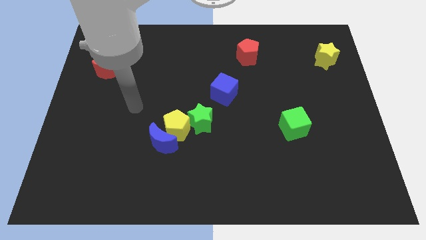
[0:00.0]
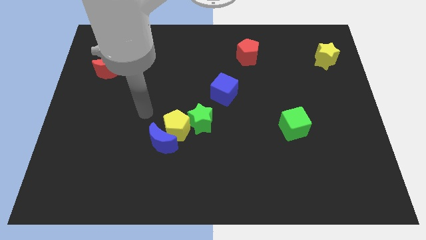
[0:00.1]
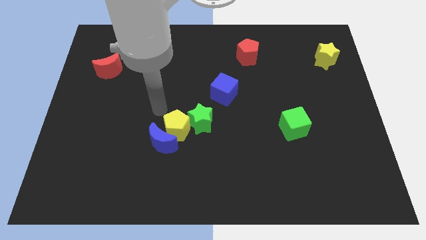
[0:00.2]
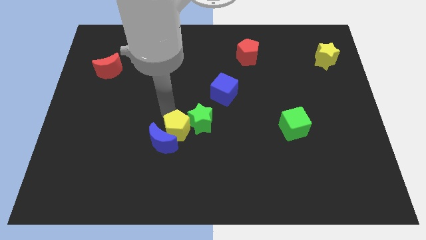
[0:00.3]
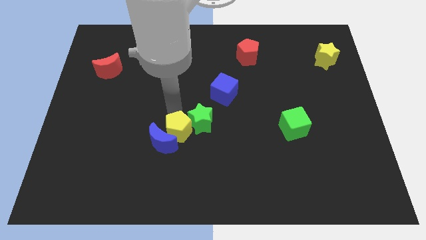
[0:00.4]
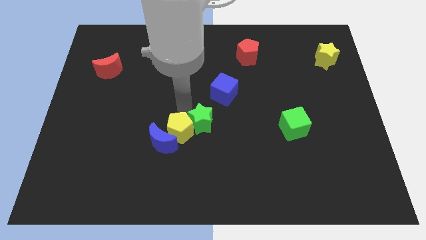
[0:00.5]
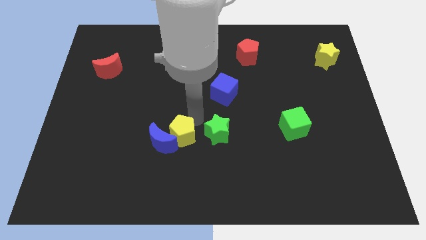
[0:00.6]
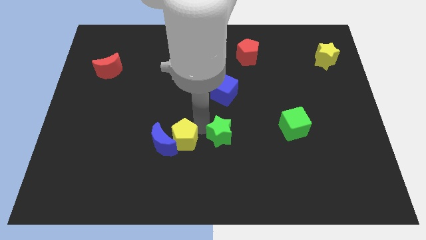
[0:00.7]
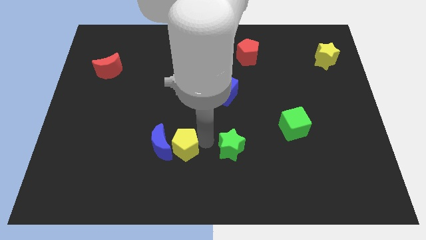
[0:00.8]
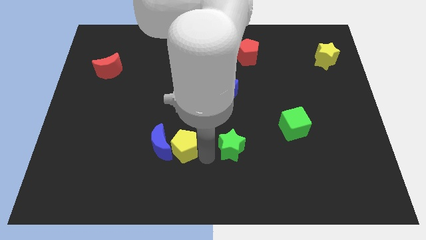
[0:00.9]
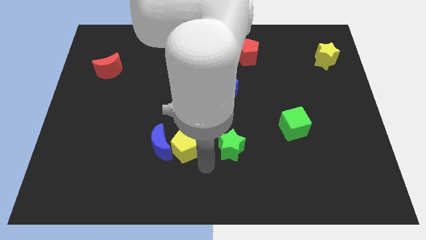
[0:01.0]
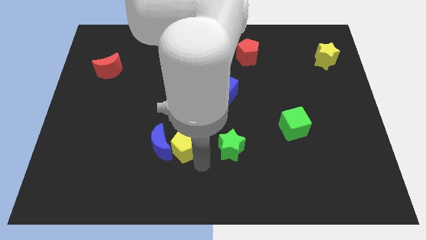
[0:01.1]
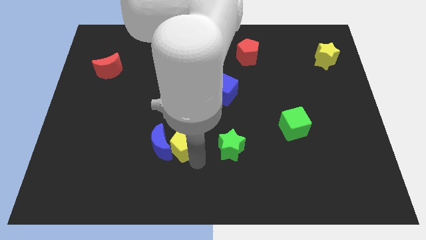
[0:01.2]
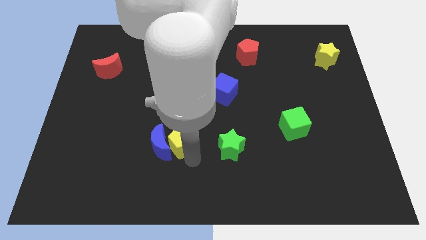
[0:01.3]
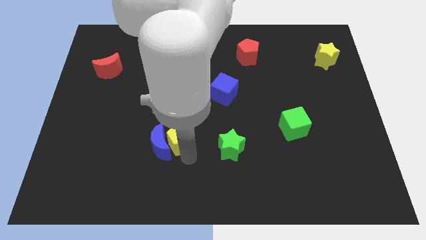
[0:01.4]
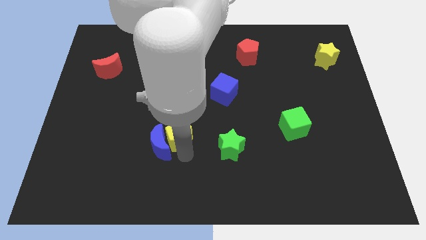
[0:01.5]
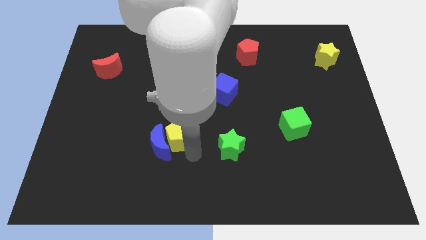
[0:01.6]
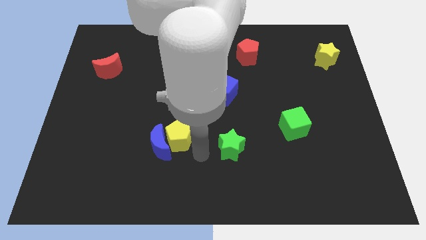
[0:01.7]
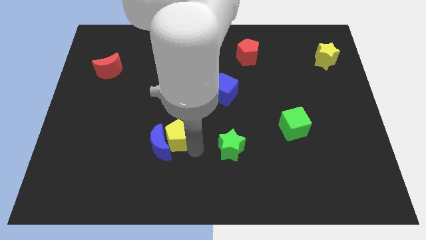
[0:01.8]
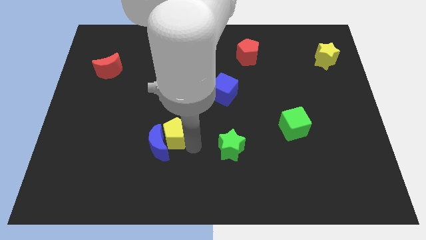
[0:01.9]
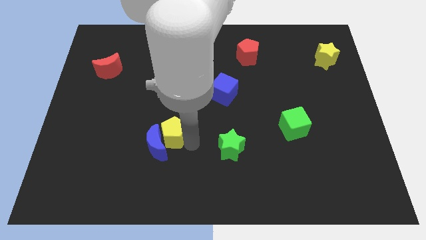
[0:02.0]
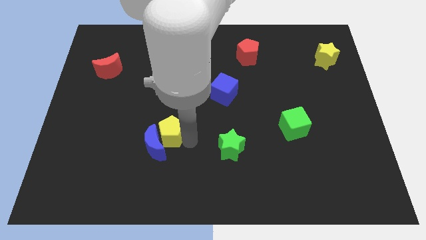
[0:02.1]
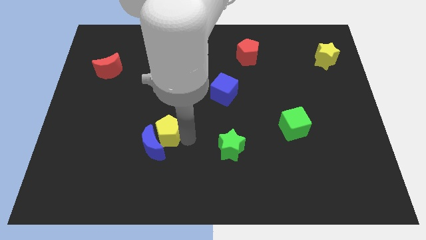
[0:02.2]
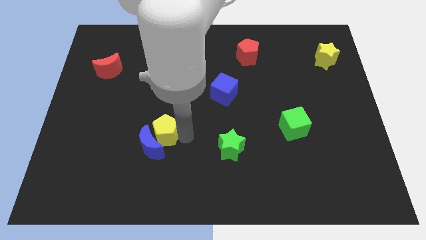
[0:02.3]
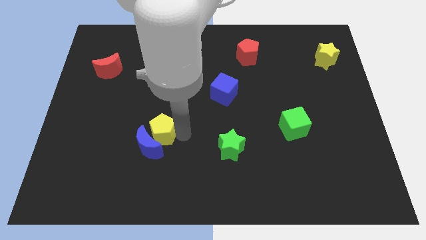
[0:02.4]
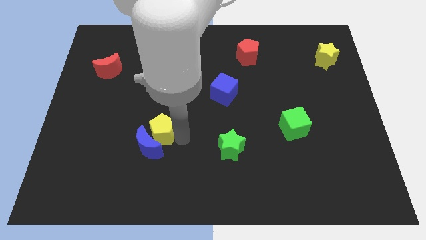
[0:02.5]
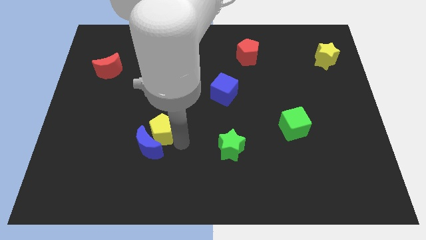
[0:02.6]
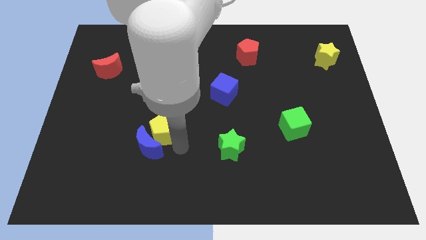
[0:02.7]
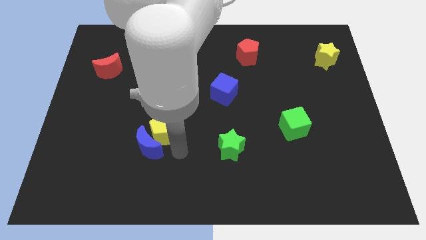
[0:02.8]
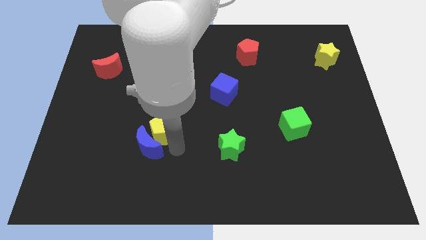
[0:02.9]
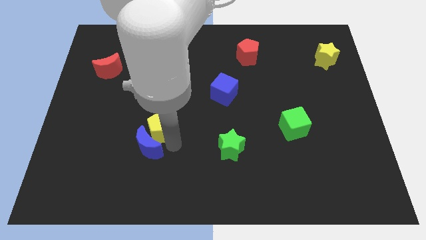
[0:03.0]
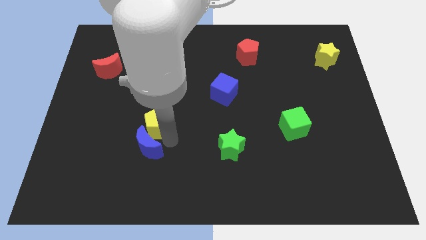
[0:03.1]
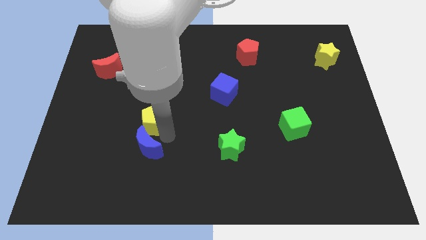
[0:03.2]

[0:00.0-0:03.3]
pull the yellow pentagon apart from the blue moon and green star

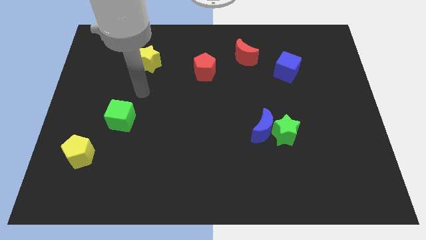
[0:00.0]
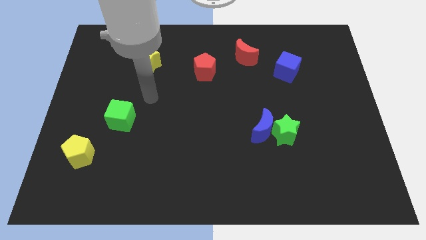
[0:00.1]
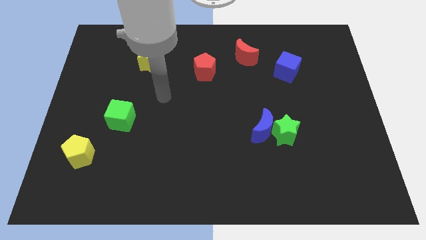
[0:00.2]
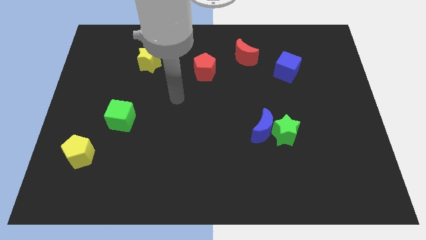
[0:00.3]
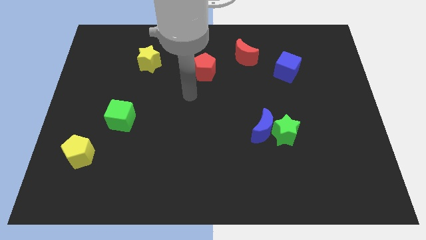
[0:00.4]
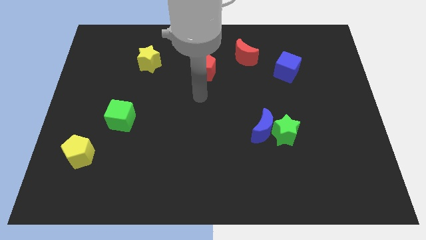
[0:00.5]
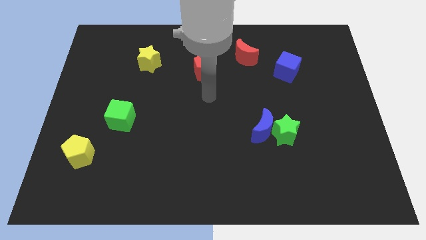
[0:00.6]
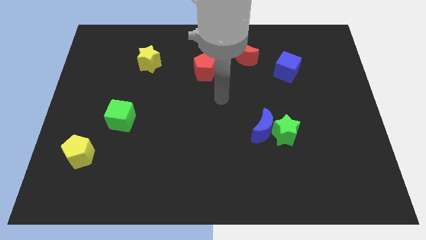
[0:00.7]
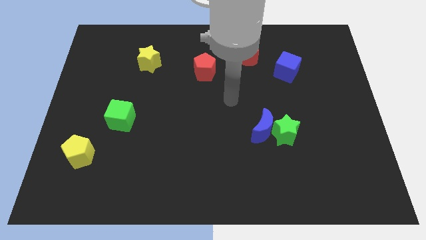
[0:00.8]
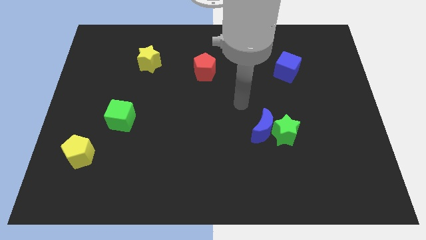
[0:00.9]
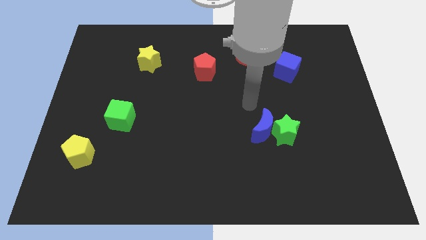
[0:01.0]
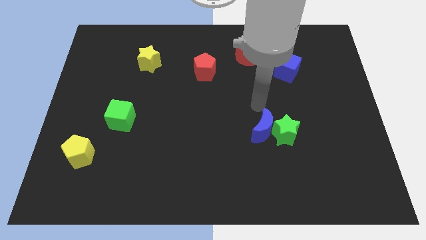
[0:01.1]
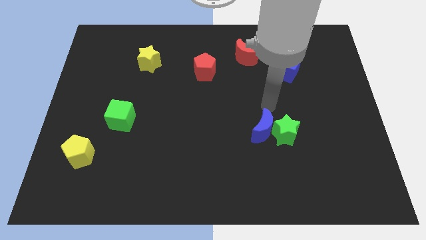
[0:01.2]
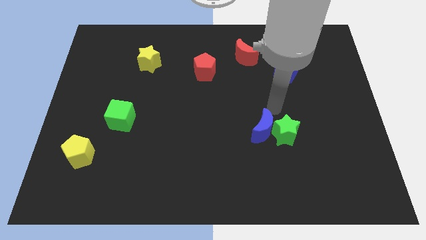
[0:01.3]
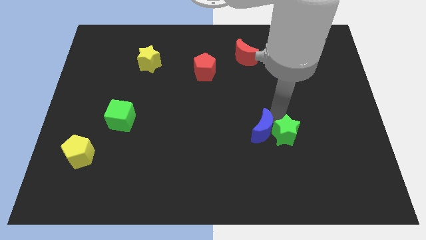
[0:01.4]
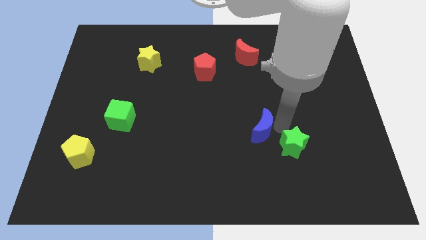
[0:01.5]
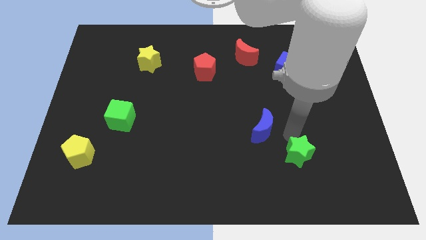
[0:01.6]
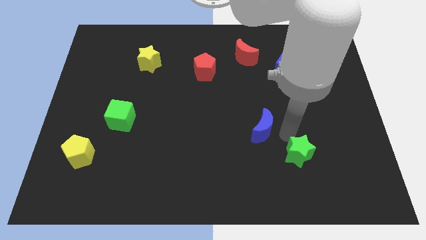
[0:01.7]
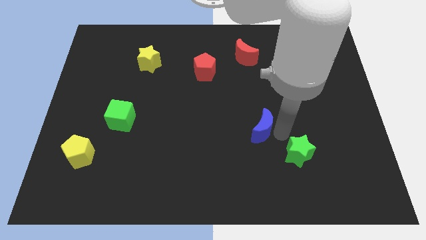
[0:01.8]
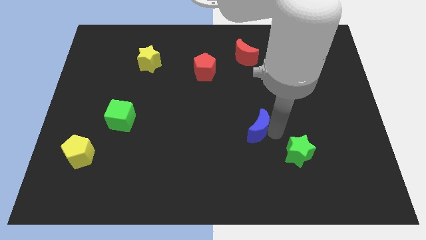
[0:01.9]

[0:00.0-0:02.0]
move the blue moon away from the green star

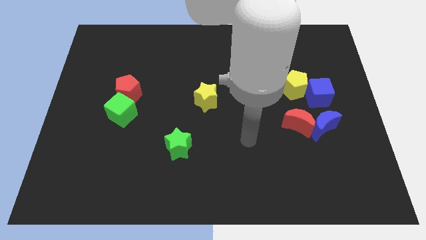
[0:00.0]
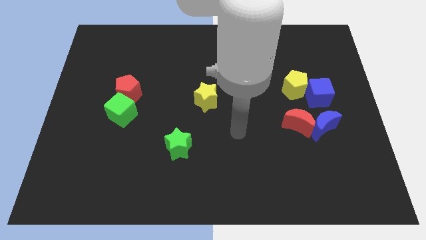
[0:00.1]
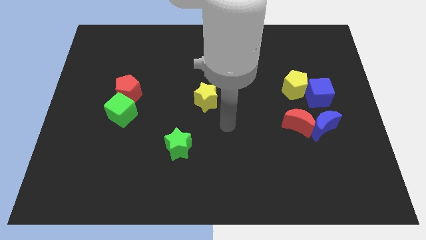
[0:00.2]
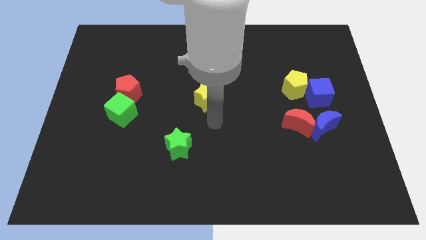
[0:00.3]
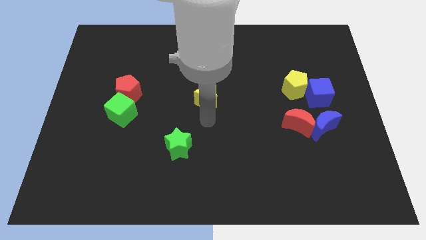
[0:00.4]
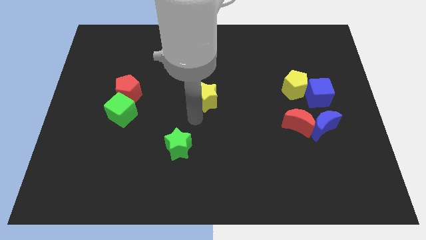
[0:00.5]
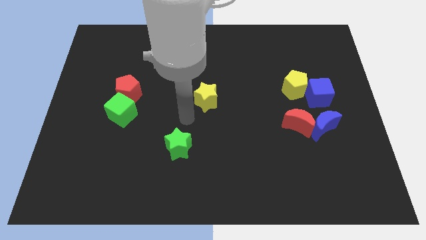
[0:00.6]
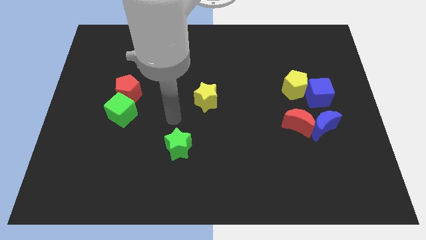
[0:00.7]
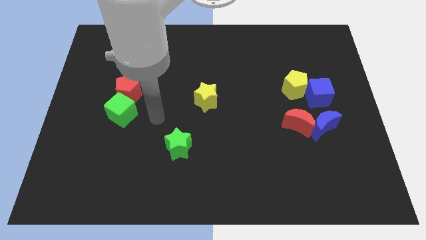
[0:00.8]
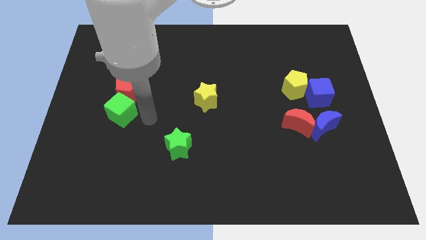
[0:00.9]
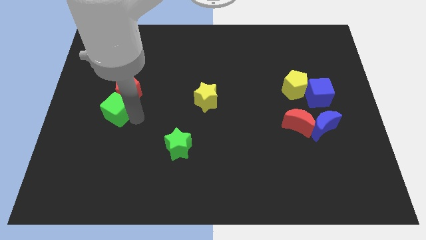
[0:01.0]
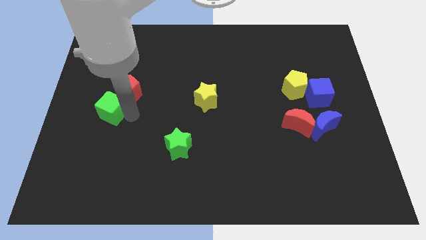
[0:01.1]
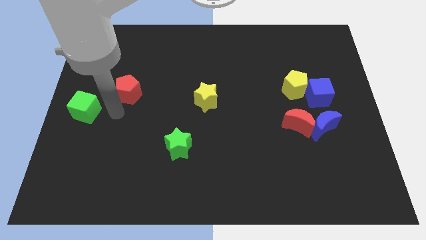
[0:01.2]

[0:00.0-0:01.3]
move the red pentagon away from the green cube

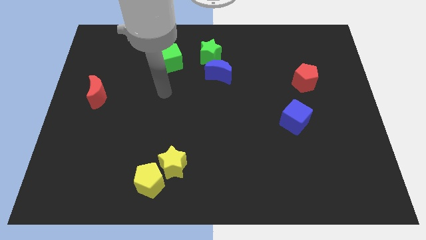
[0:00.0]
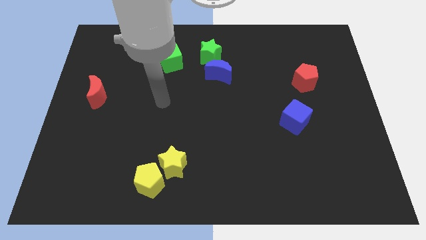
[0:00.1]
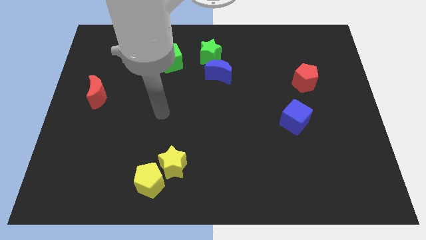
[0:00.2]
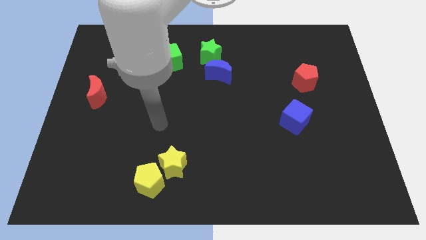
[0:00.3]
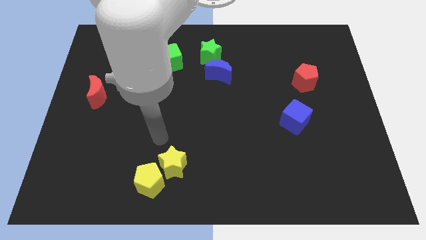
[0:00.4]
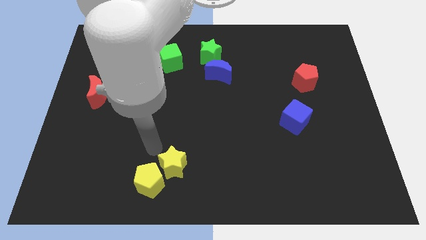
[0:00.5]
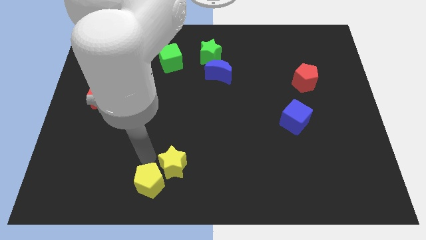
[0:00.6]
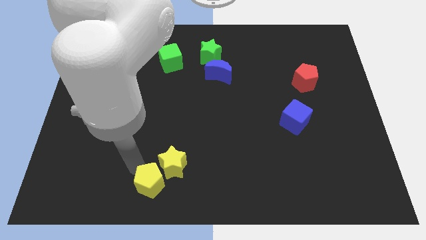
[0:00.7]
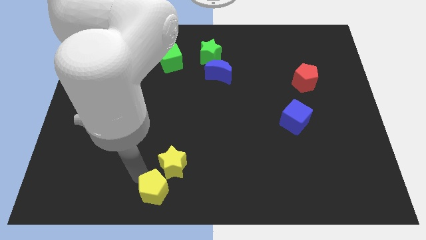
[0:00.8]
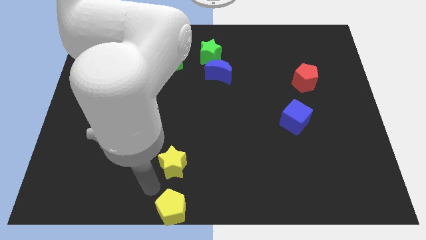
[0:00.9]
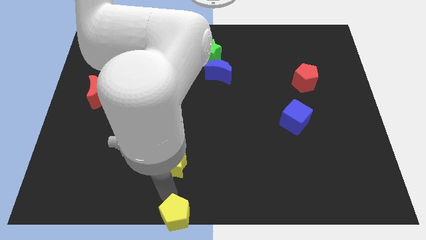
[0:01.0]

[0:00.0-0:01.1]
pull the yellow star apart from the yellow pentagon

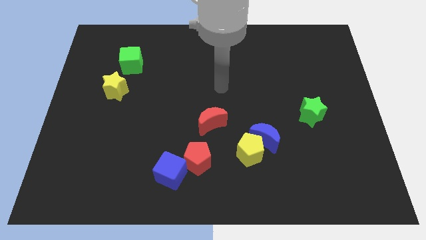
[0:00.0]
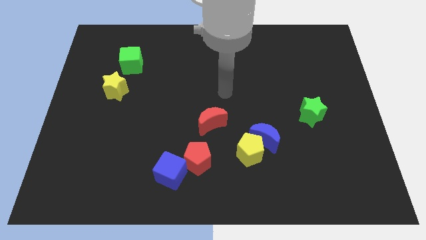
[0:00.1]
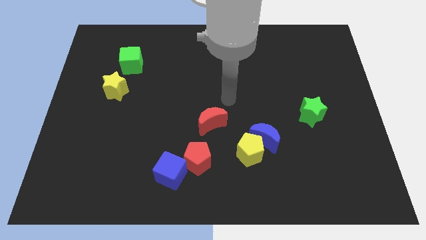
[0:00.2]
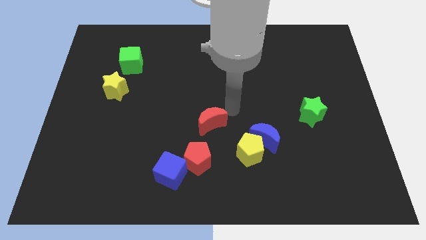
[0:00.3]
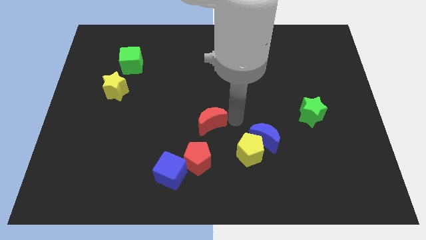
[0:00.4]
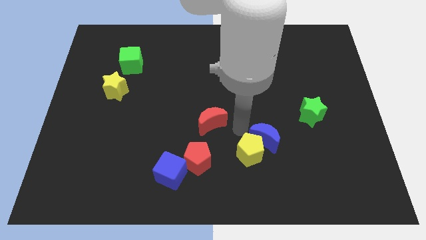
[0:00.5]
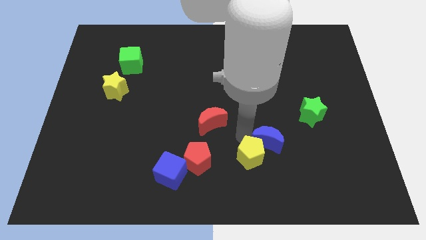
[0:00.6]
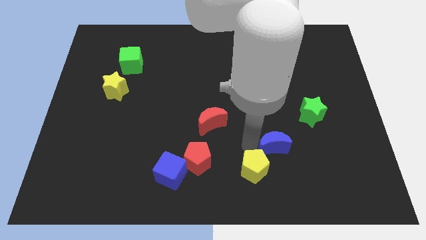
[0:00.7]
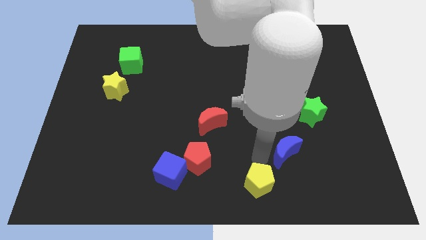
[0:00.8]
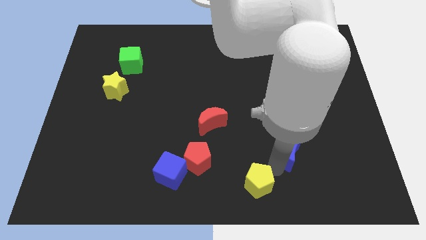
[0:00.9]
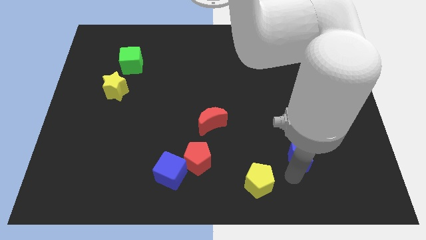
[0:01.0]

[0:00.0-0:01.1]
move the blue moon away from the yellow pentagon

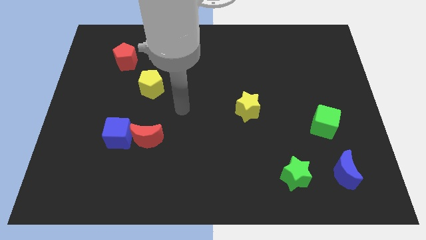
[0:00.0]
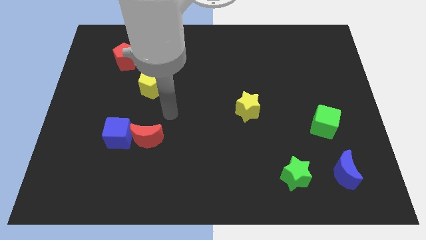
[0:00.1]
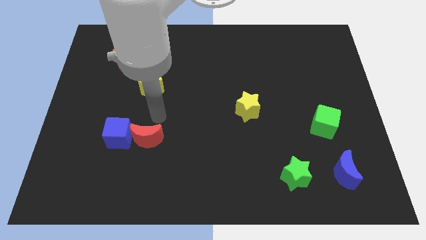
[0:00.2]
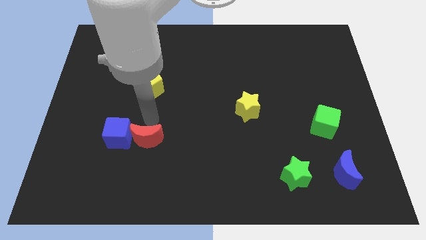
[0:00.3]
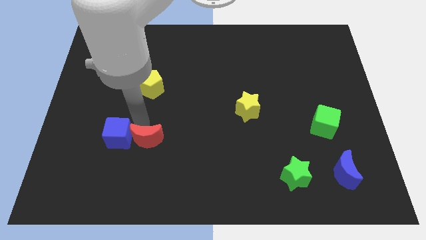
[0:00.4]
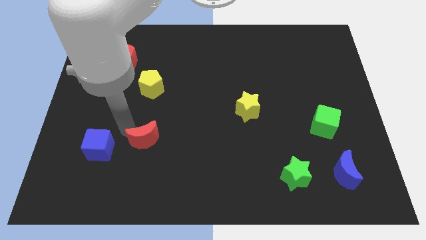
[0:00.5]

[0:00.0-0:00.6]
move the red moon away from the blue cube
